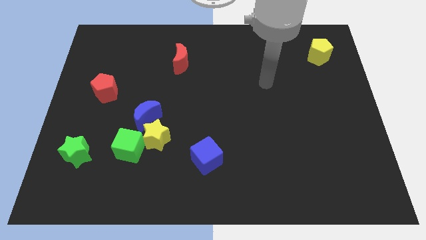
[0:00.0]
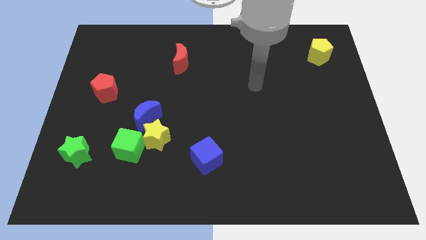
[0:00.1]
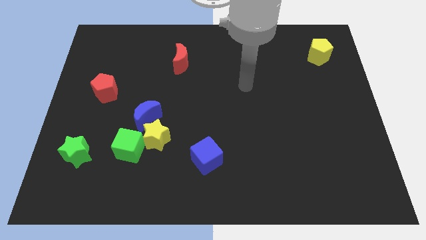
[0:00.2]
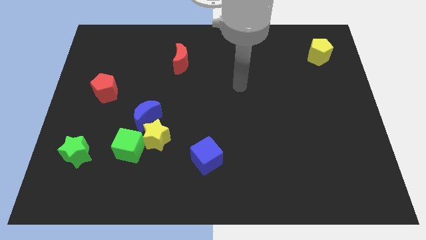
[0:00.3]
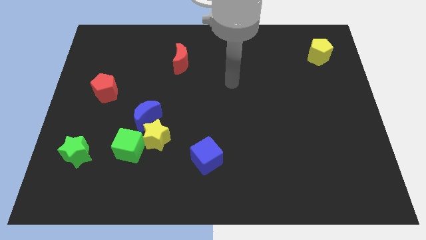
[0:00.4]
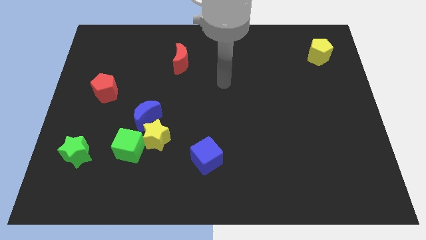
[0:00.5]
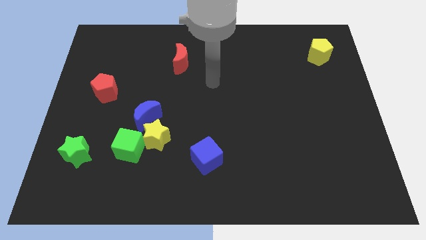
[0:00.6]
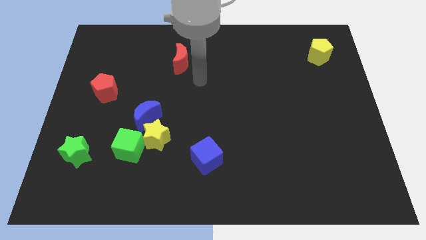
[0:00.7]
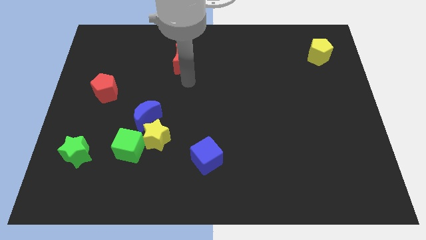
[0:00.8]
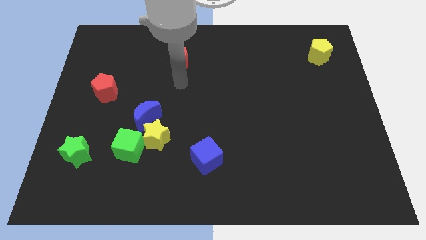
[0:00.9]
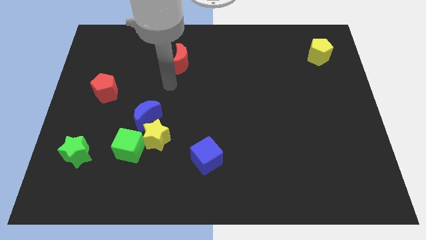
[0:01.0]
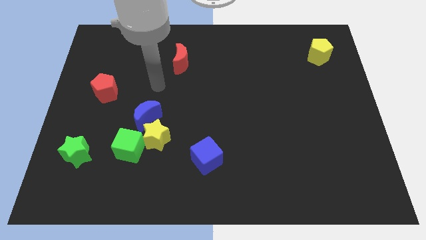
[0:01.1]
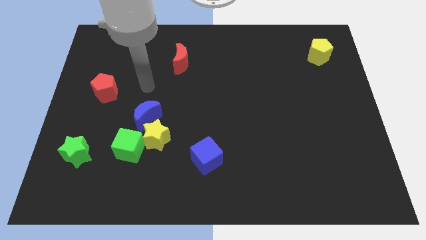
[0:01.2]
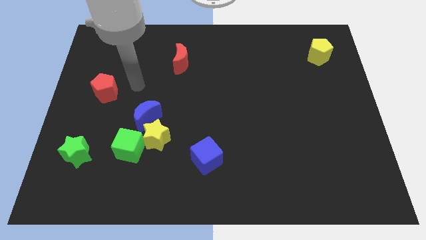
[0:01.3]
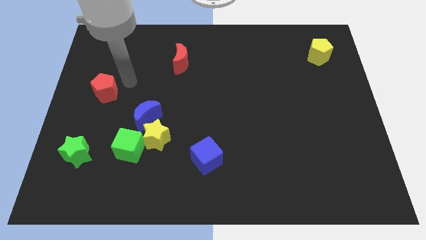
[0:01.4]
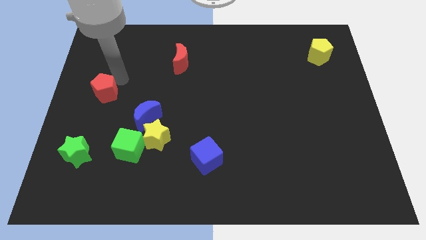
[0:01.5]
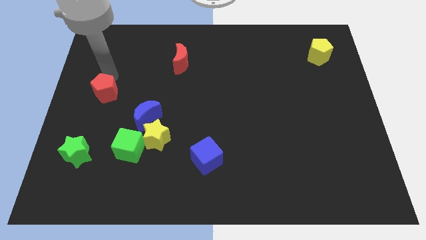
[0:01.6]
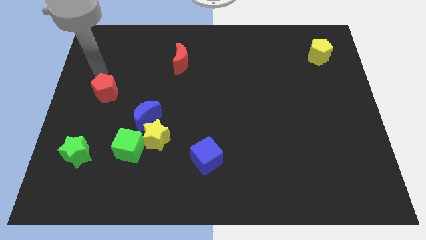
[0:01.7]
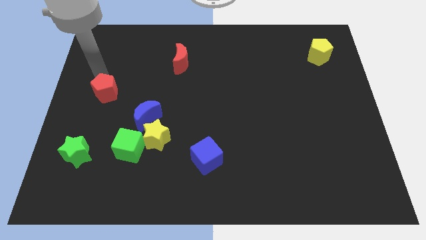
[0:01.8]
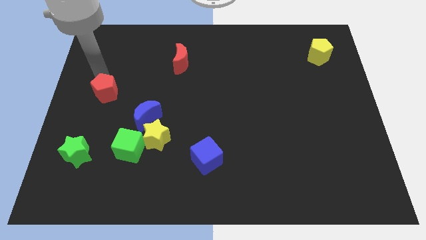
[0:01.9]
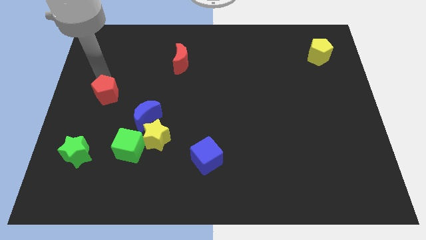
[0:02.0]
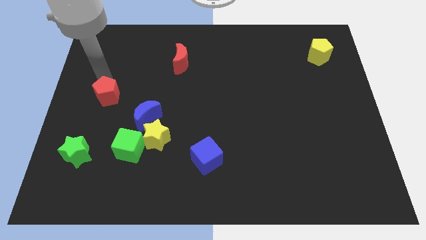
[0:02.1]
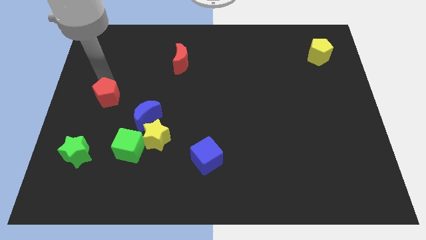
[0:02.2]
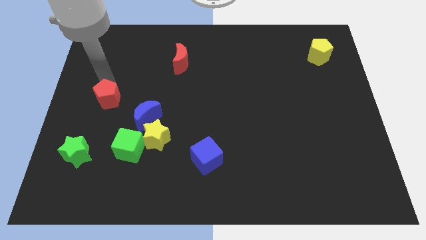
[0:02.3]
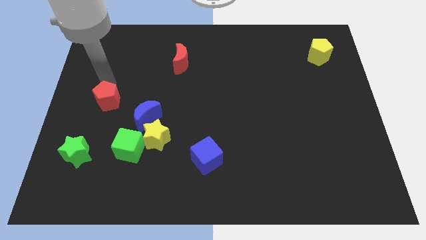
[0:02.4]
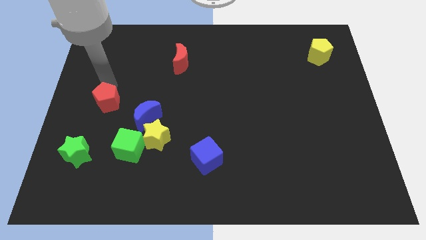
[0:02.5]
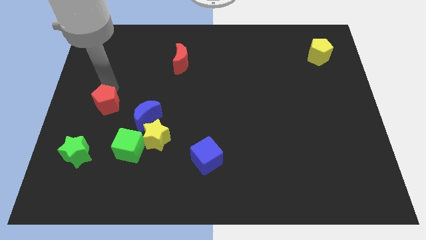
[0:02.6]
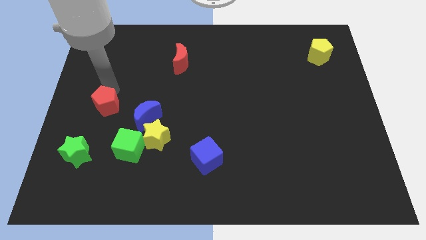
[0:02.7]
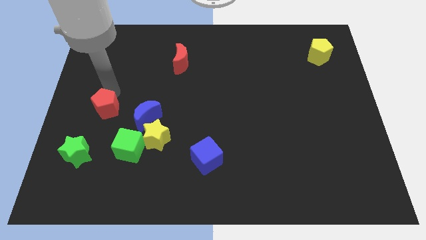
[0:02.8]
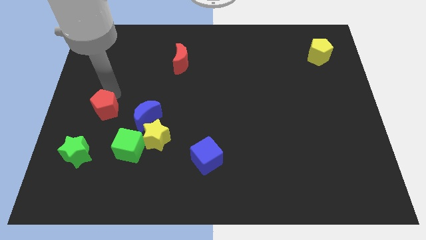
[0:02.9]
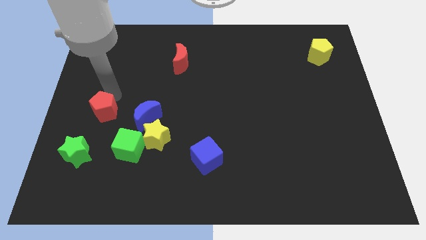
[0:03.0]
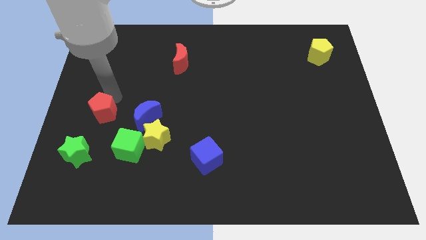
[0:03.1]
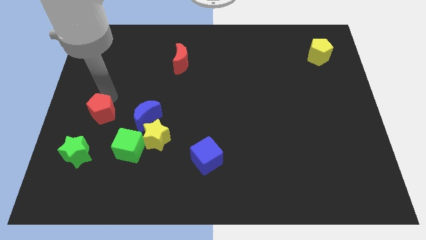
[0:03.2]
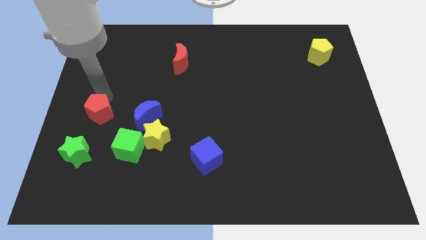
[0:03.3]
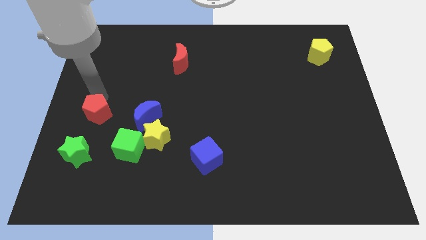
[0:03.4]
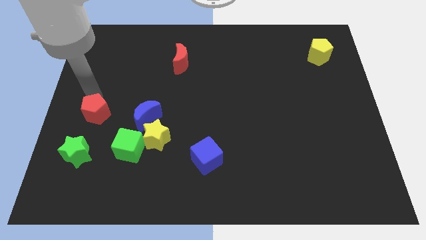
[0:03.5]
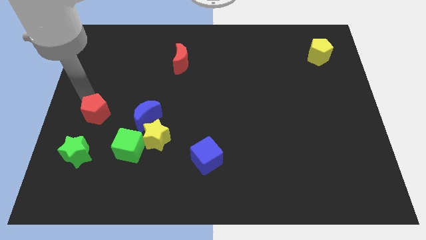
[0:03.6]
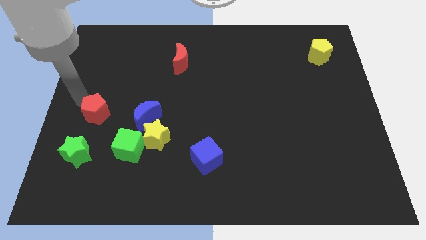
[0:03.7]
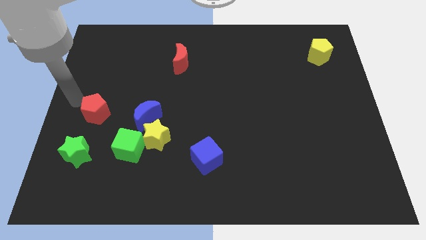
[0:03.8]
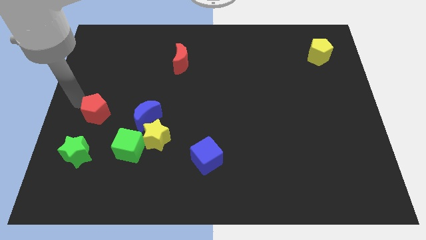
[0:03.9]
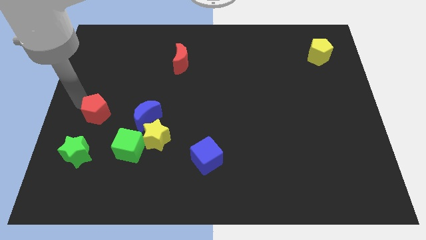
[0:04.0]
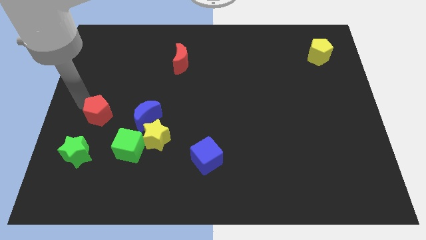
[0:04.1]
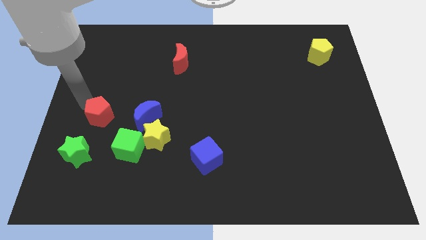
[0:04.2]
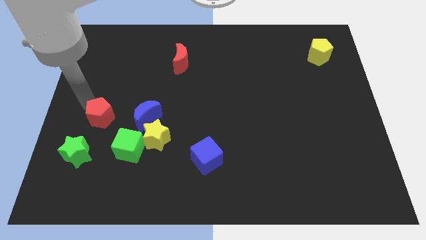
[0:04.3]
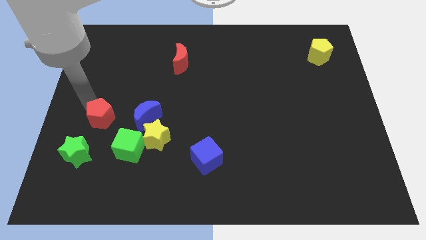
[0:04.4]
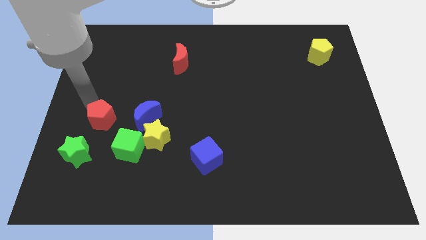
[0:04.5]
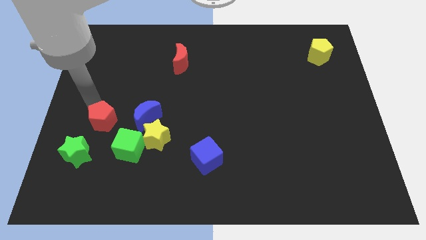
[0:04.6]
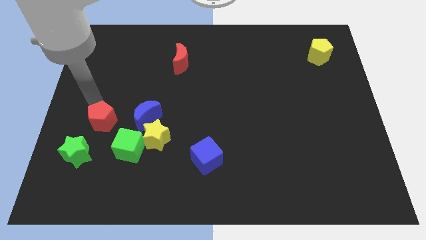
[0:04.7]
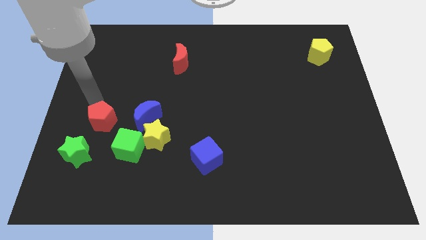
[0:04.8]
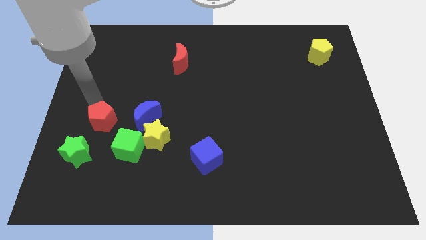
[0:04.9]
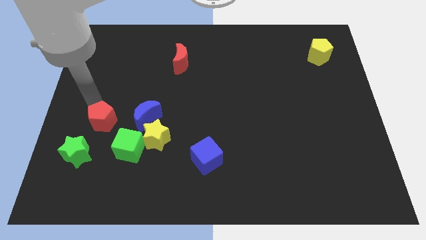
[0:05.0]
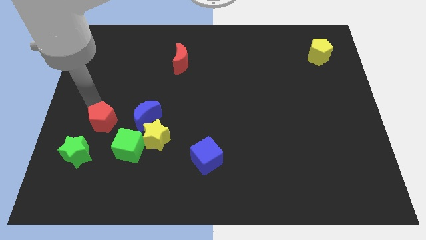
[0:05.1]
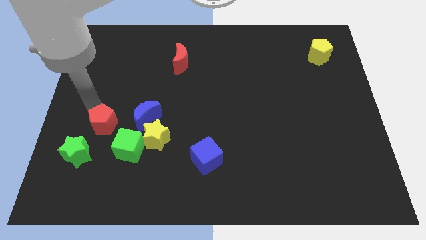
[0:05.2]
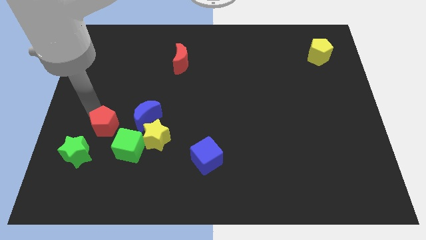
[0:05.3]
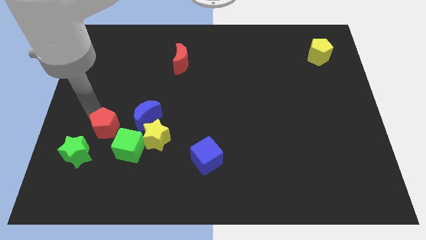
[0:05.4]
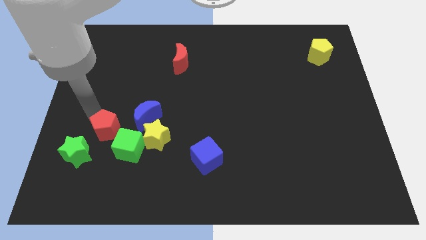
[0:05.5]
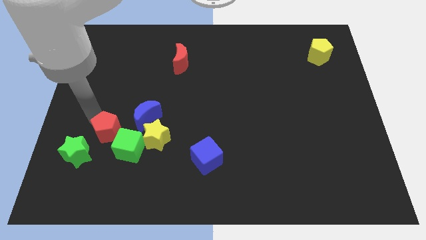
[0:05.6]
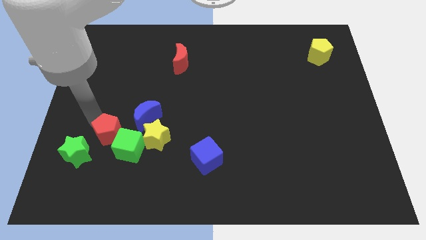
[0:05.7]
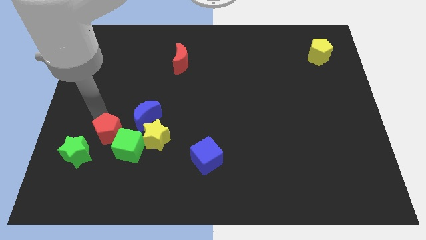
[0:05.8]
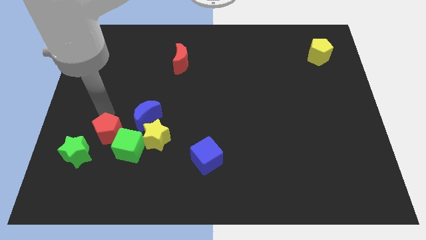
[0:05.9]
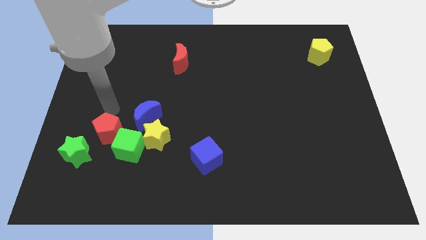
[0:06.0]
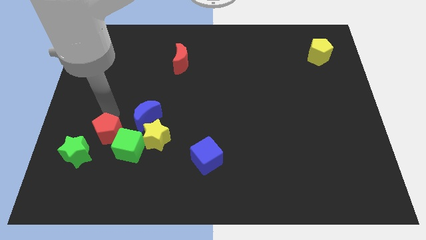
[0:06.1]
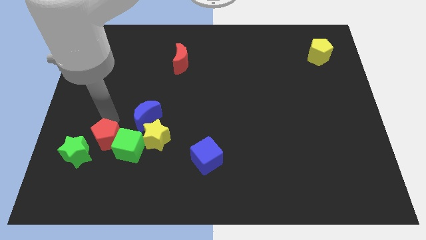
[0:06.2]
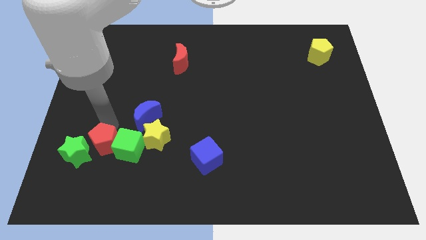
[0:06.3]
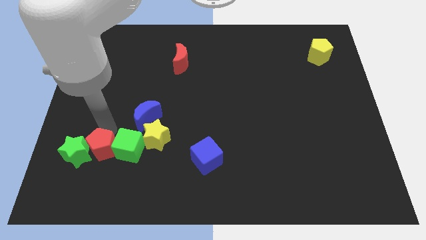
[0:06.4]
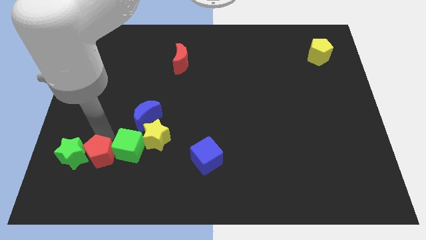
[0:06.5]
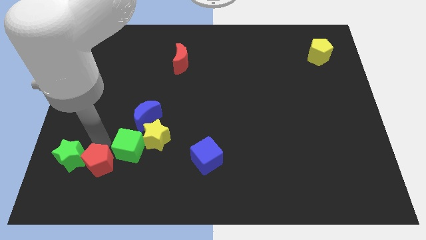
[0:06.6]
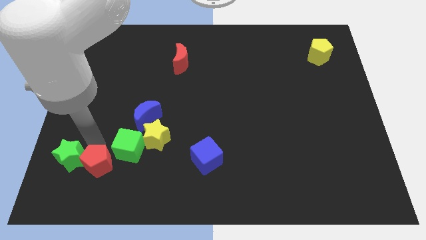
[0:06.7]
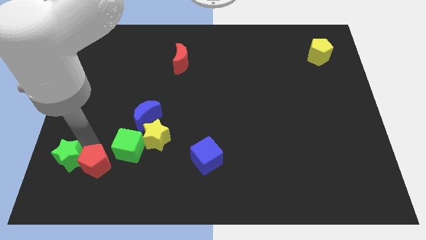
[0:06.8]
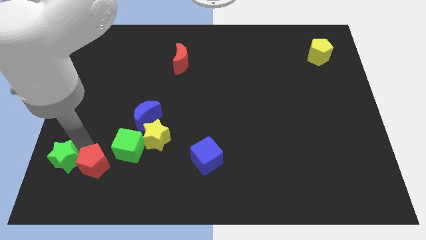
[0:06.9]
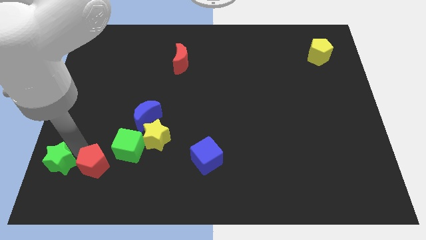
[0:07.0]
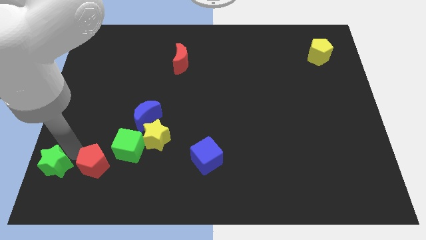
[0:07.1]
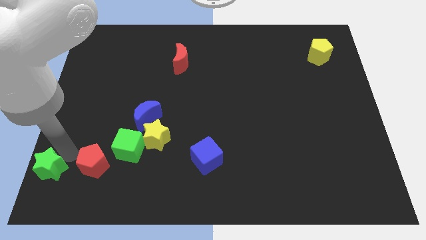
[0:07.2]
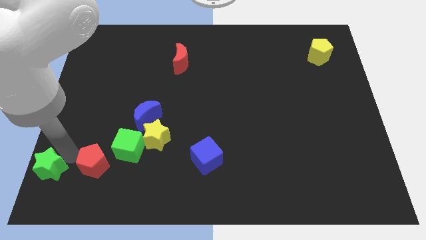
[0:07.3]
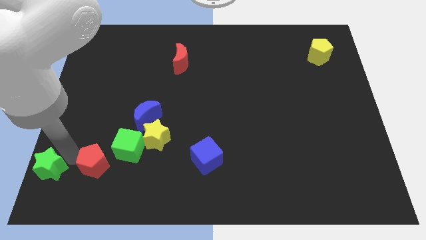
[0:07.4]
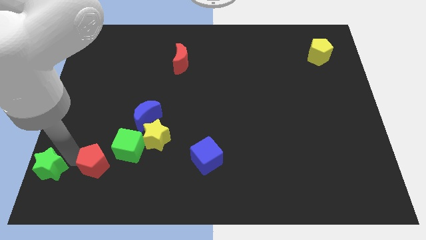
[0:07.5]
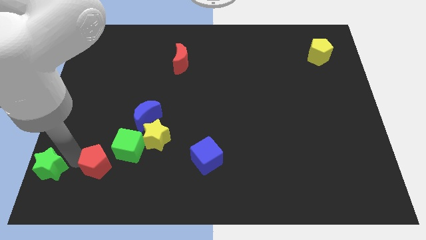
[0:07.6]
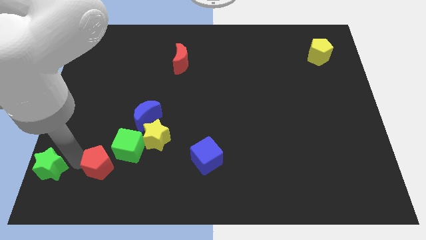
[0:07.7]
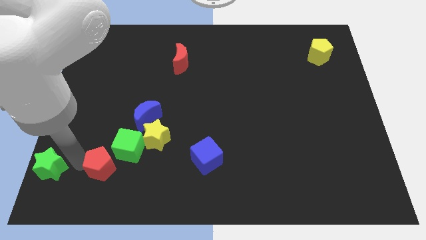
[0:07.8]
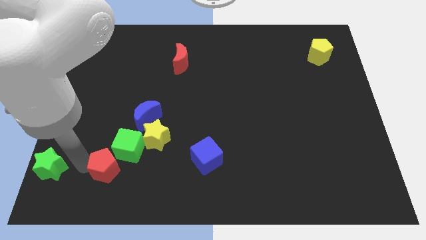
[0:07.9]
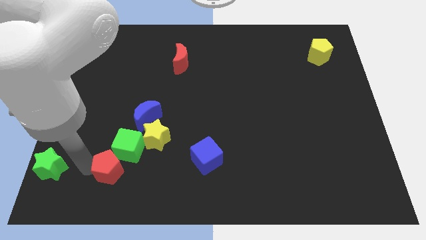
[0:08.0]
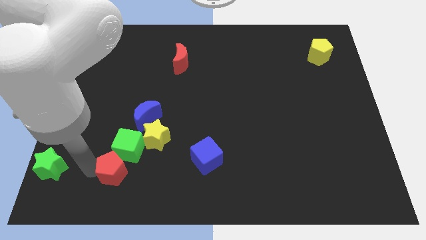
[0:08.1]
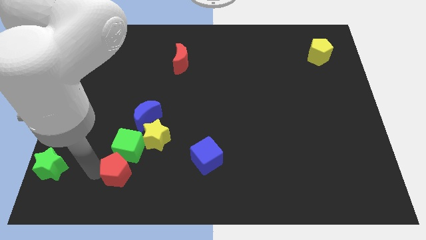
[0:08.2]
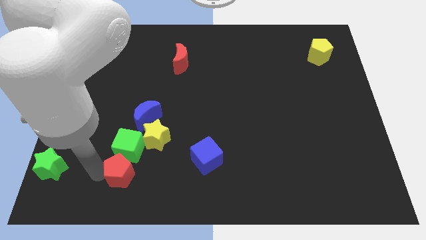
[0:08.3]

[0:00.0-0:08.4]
put the red pentagon diagonally down and to the right of the green cube
